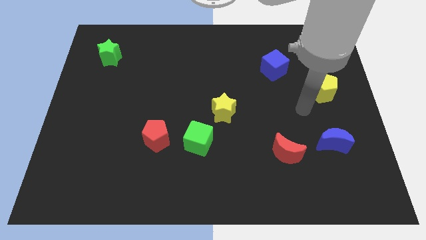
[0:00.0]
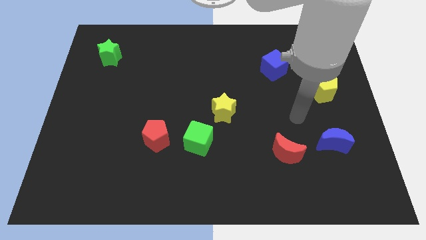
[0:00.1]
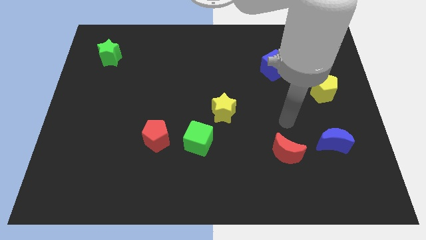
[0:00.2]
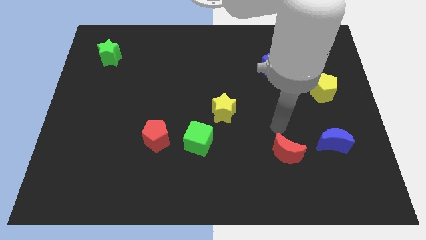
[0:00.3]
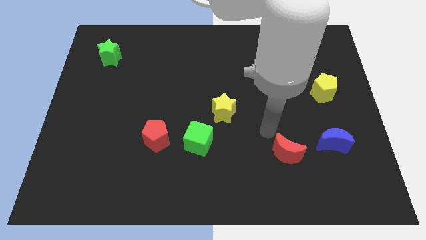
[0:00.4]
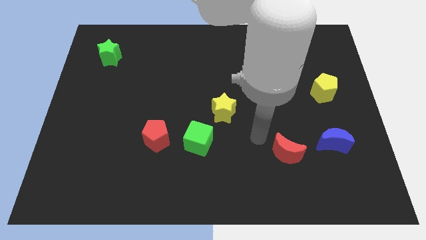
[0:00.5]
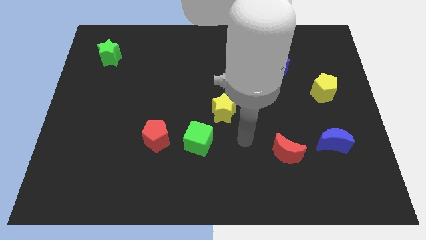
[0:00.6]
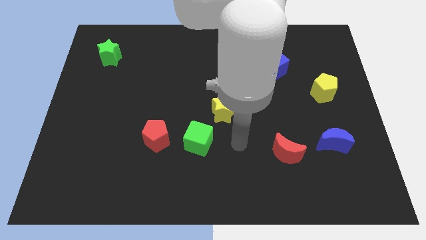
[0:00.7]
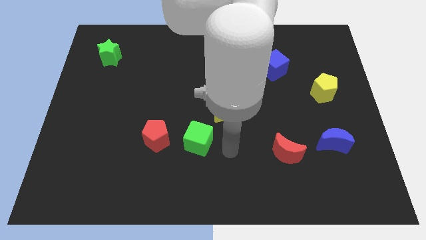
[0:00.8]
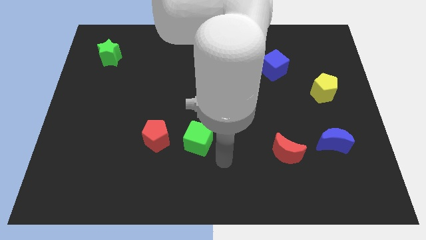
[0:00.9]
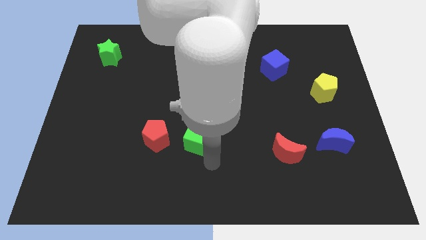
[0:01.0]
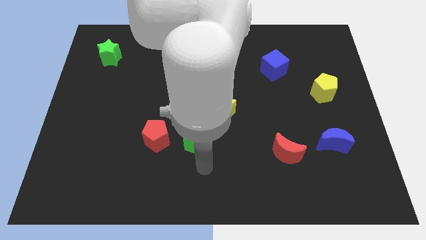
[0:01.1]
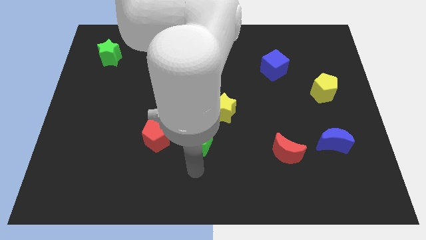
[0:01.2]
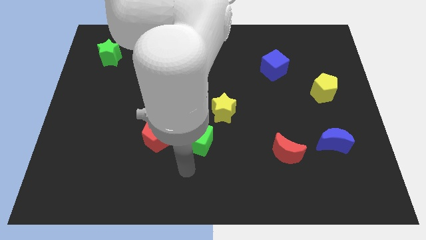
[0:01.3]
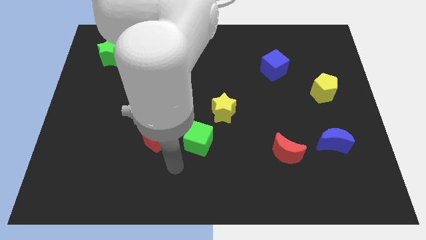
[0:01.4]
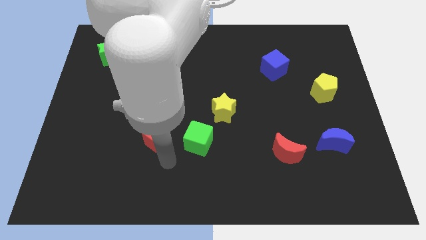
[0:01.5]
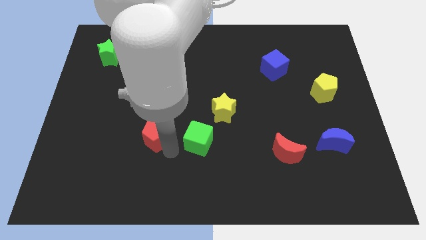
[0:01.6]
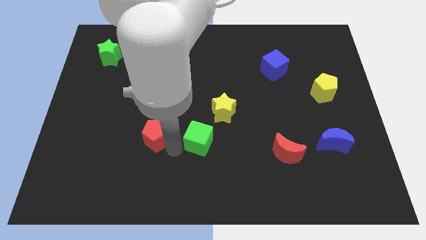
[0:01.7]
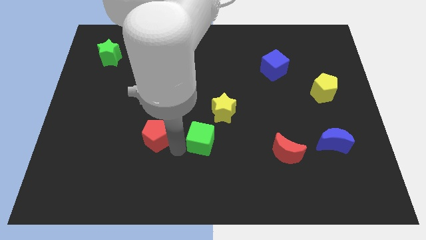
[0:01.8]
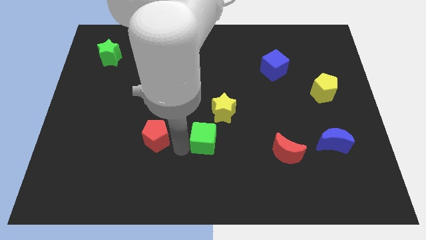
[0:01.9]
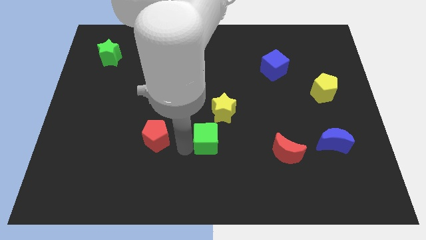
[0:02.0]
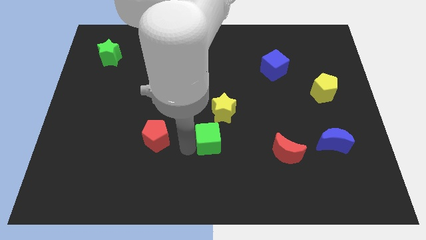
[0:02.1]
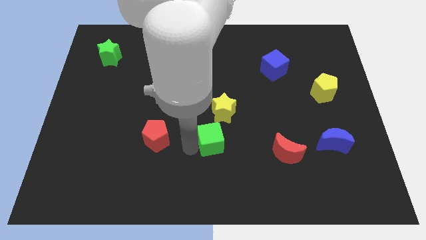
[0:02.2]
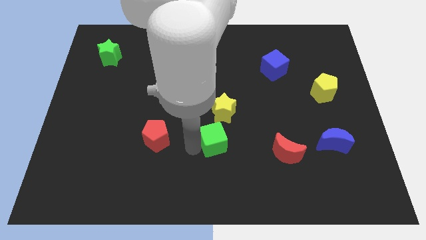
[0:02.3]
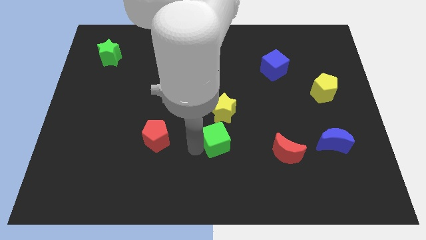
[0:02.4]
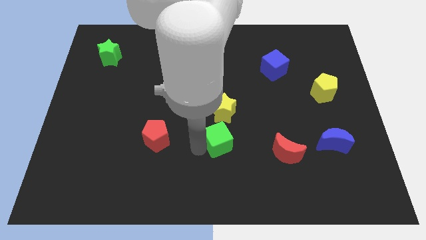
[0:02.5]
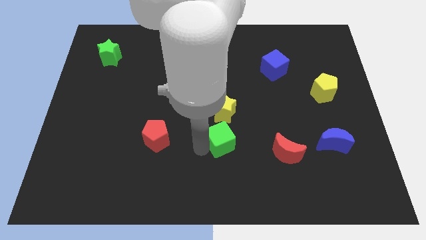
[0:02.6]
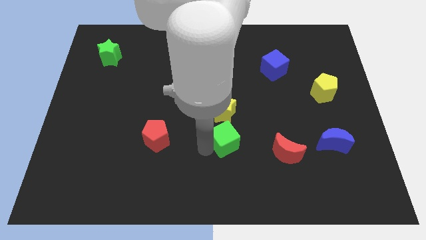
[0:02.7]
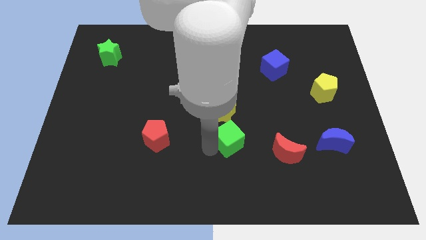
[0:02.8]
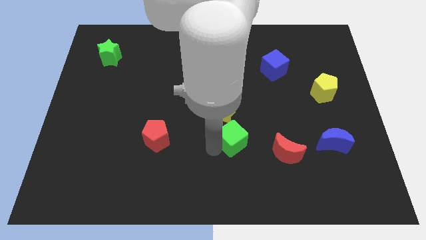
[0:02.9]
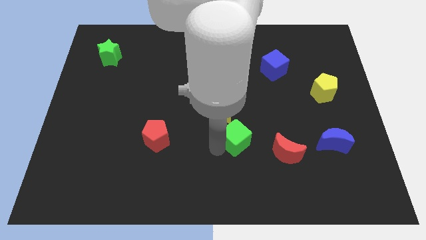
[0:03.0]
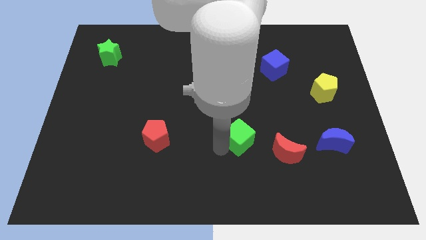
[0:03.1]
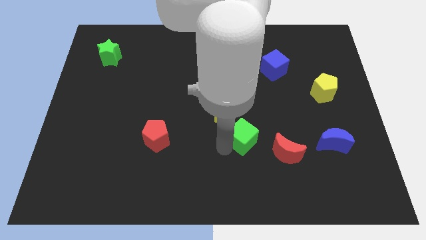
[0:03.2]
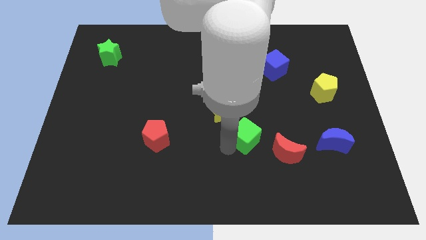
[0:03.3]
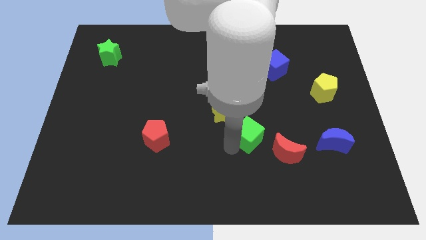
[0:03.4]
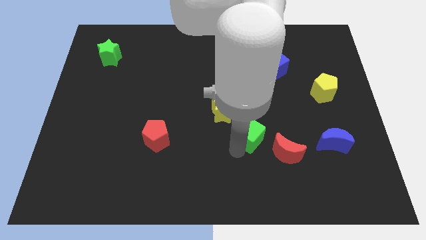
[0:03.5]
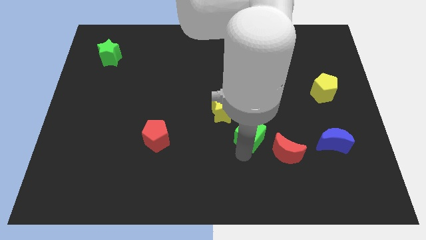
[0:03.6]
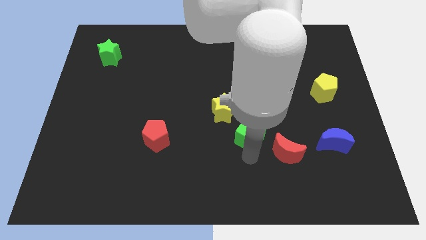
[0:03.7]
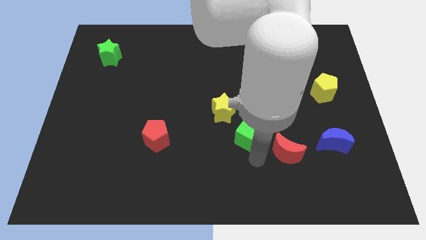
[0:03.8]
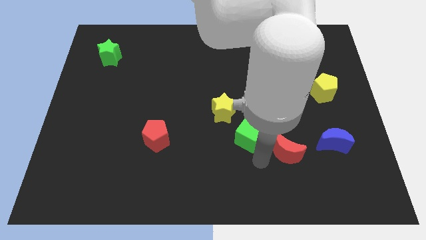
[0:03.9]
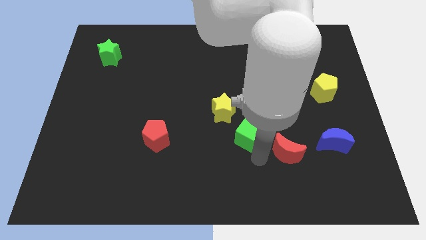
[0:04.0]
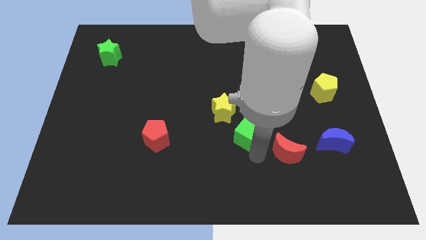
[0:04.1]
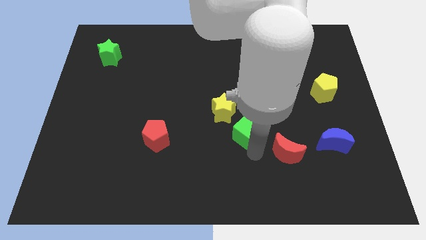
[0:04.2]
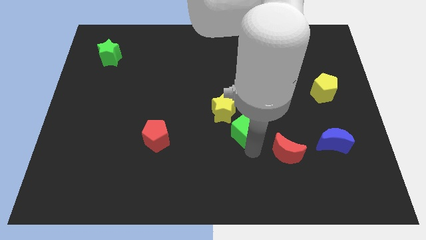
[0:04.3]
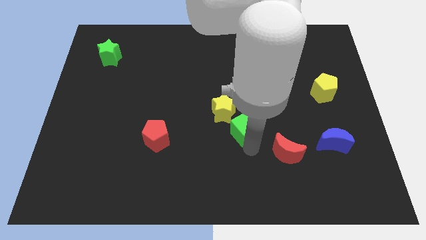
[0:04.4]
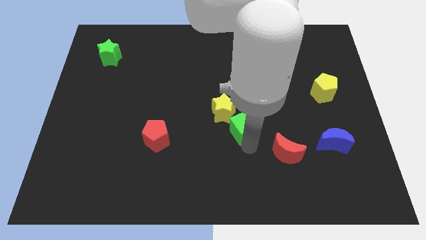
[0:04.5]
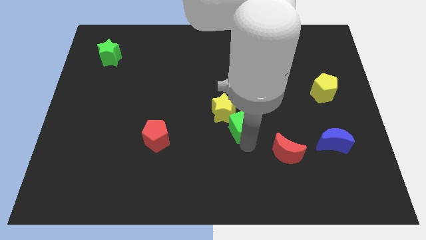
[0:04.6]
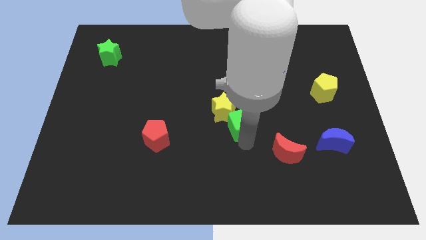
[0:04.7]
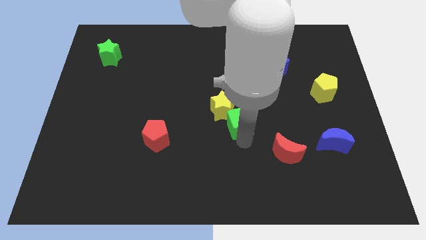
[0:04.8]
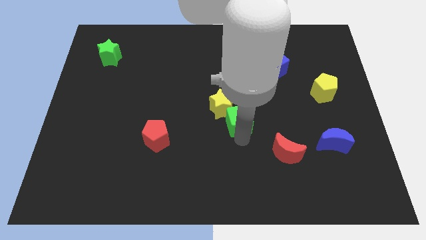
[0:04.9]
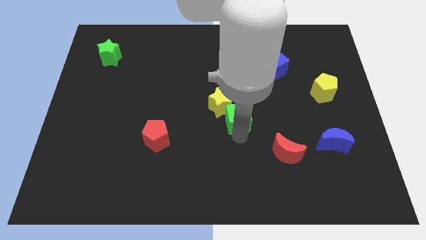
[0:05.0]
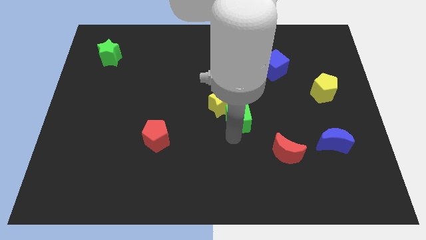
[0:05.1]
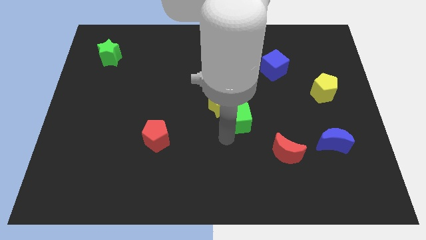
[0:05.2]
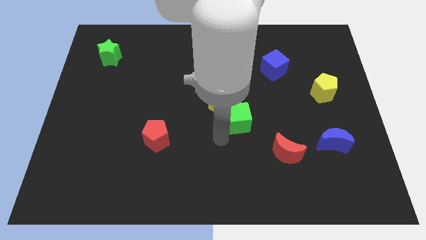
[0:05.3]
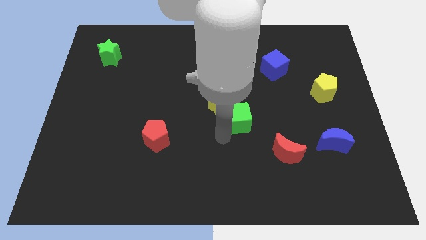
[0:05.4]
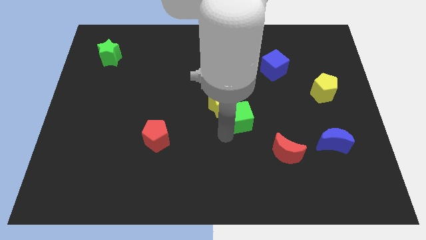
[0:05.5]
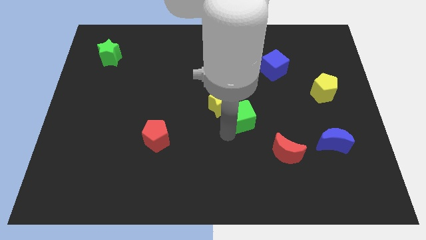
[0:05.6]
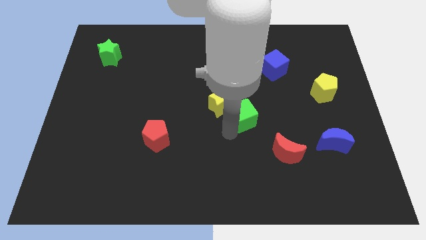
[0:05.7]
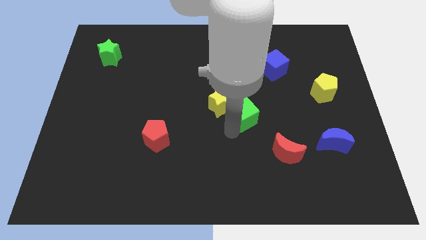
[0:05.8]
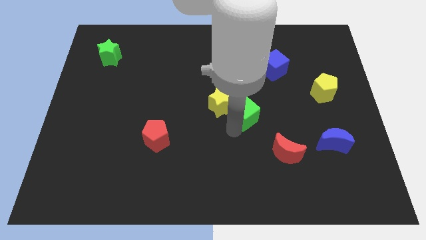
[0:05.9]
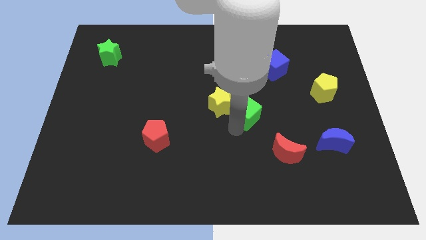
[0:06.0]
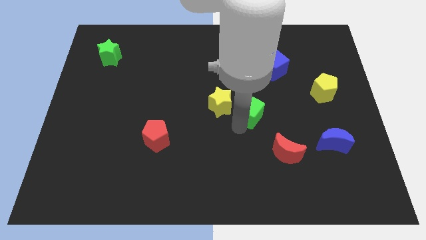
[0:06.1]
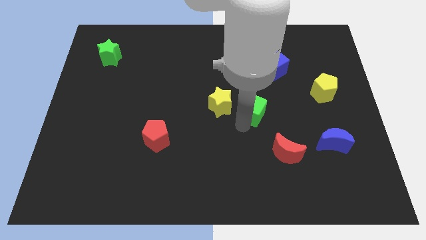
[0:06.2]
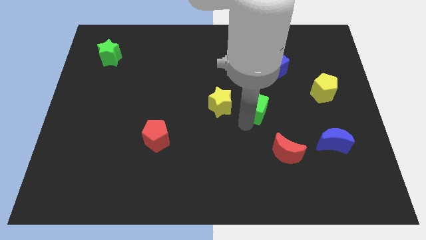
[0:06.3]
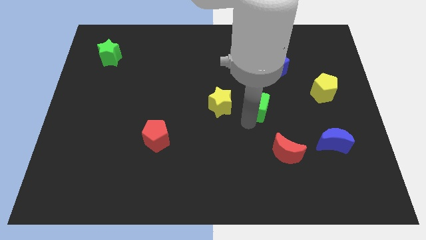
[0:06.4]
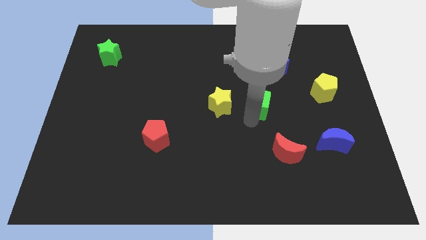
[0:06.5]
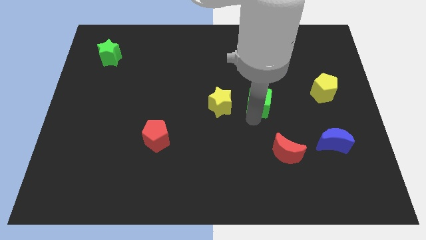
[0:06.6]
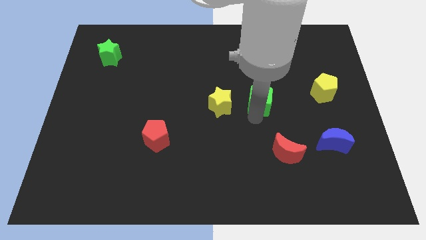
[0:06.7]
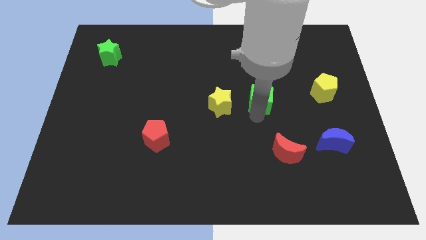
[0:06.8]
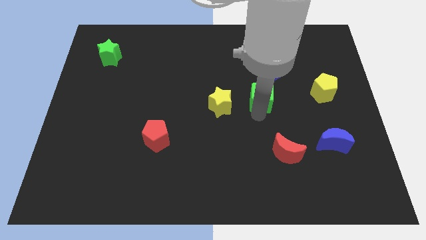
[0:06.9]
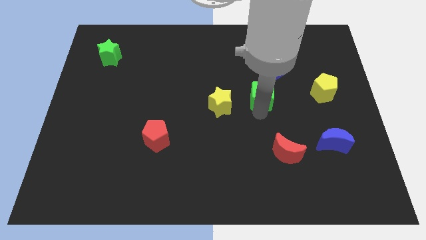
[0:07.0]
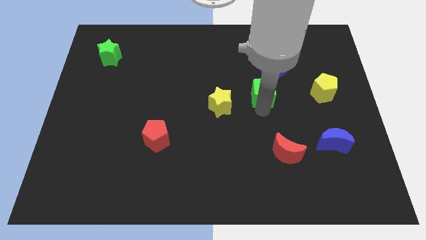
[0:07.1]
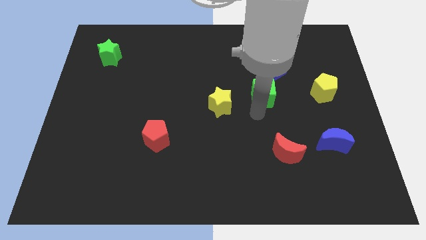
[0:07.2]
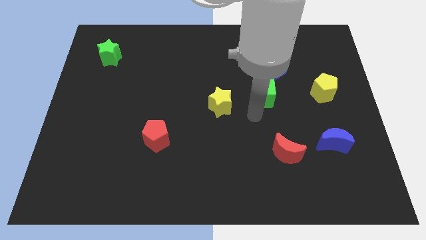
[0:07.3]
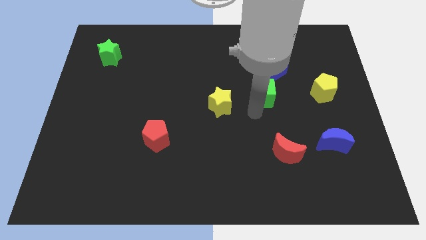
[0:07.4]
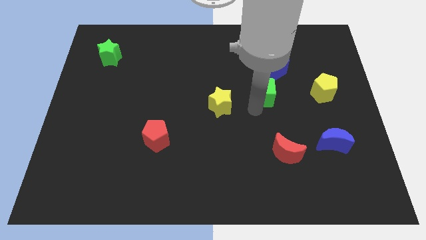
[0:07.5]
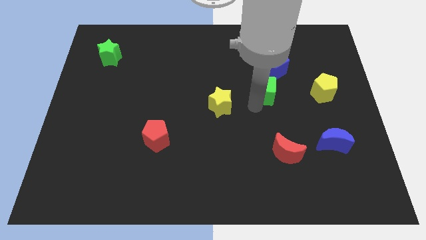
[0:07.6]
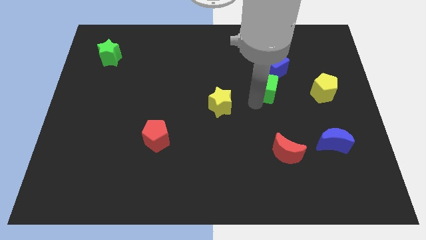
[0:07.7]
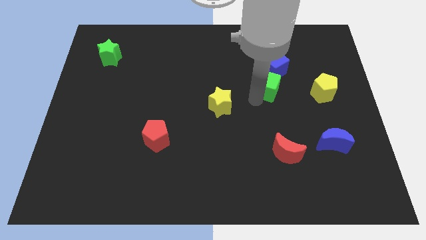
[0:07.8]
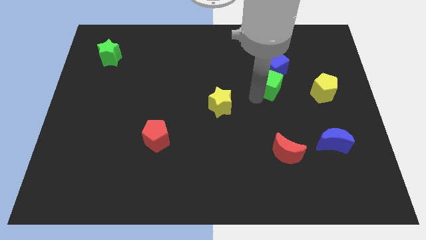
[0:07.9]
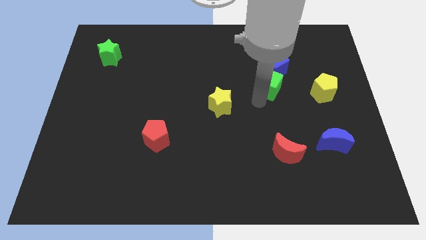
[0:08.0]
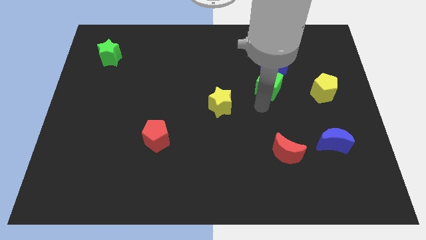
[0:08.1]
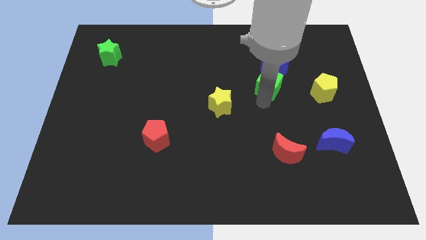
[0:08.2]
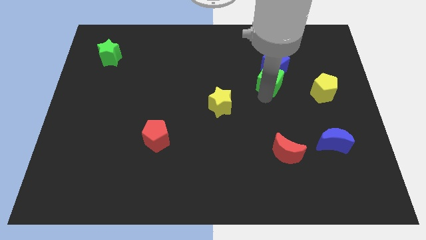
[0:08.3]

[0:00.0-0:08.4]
slide the green cube close to the blue cube
